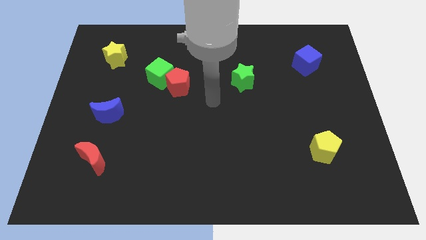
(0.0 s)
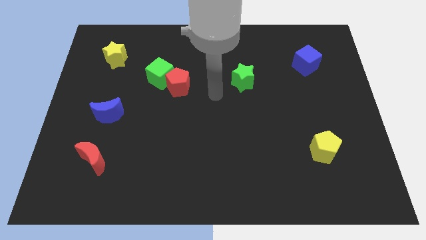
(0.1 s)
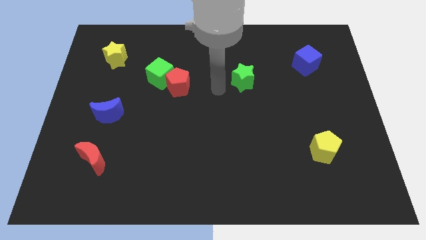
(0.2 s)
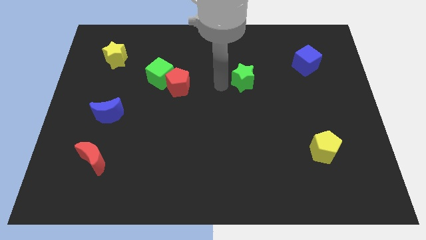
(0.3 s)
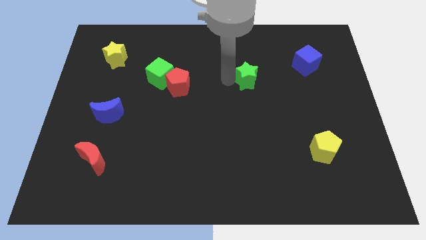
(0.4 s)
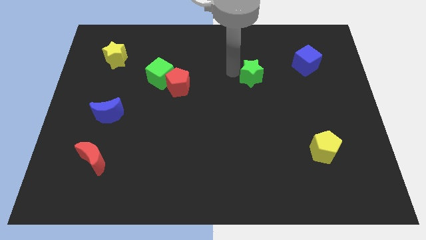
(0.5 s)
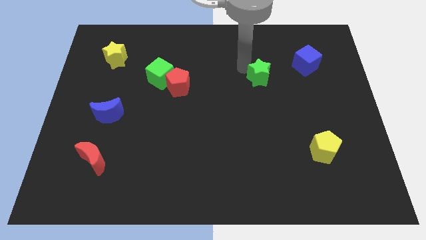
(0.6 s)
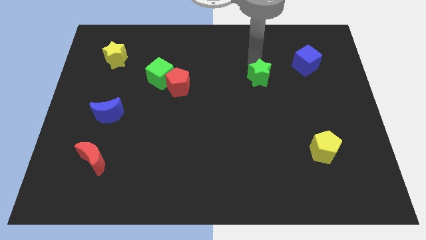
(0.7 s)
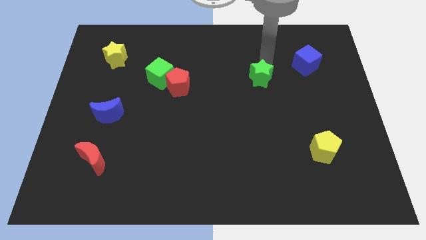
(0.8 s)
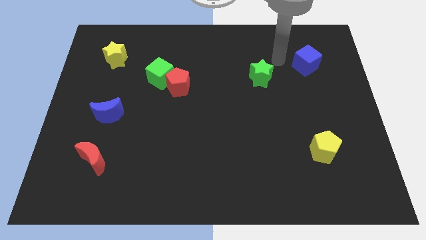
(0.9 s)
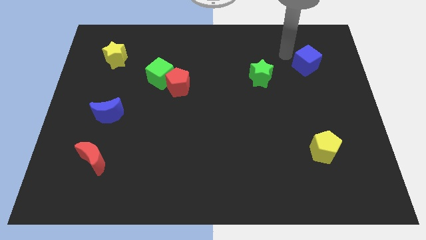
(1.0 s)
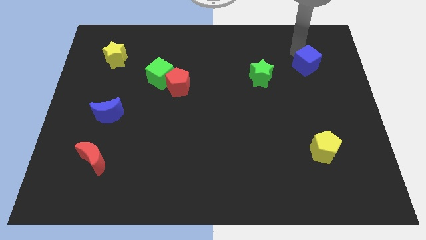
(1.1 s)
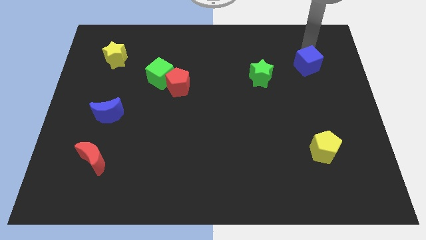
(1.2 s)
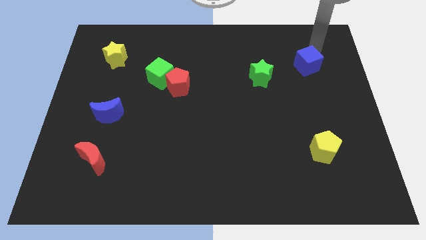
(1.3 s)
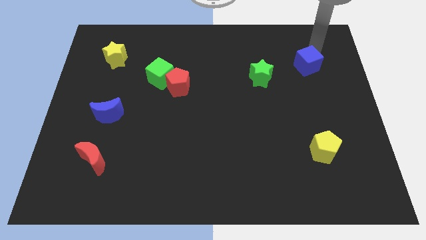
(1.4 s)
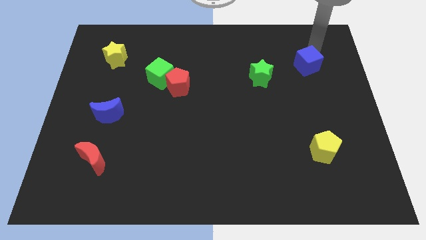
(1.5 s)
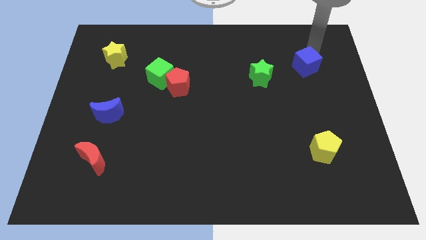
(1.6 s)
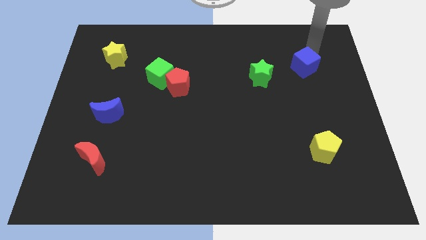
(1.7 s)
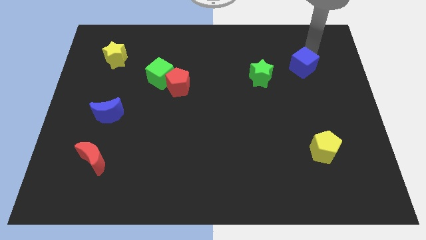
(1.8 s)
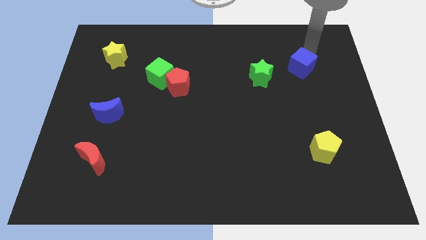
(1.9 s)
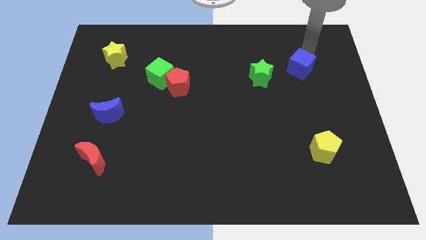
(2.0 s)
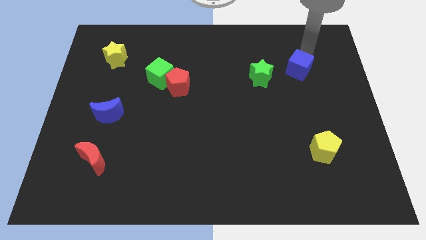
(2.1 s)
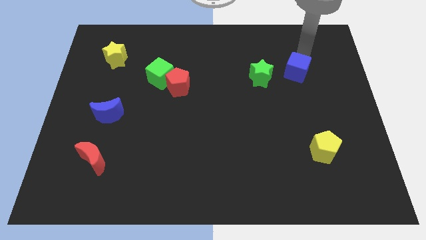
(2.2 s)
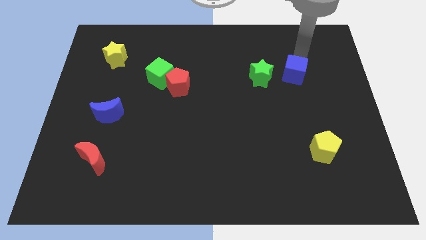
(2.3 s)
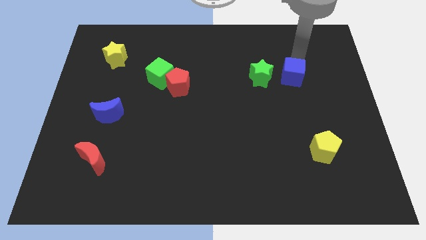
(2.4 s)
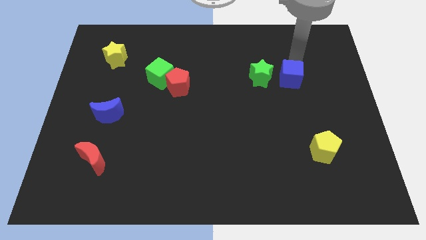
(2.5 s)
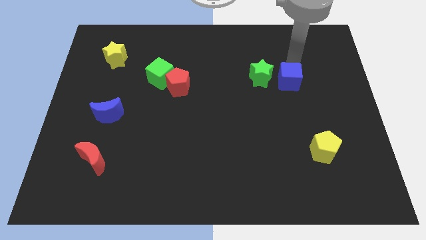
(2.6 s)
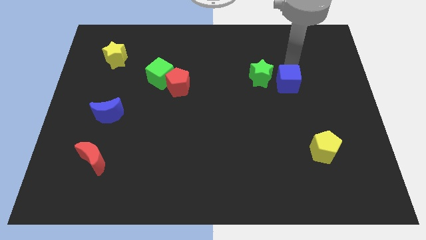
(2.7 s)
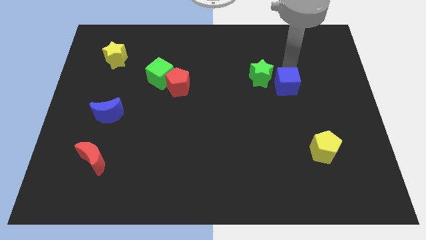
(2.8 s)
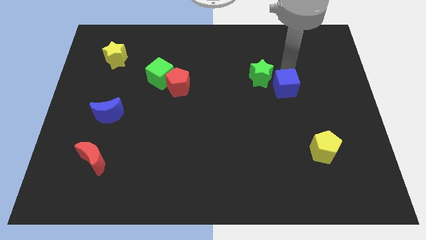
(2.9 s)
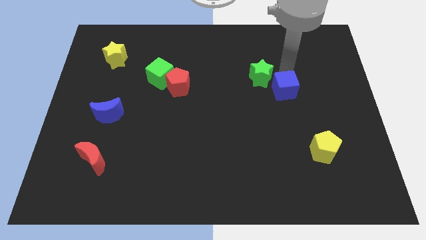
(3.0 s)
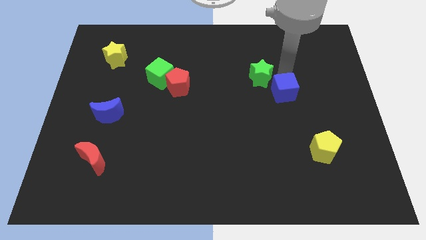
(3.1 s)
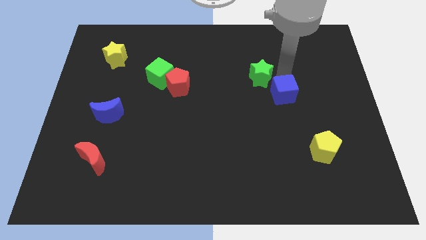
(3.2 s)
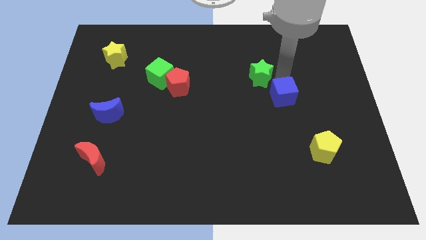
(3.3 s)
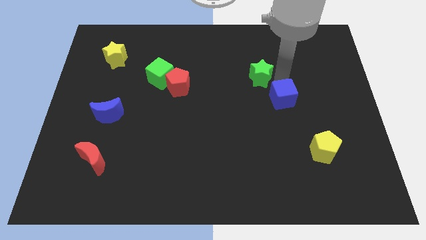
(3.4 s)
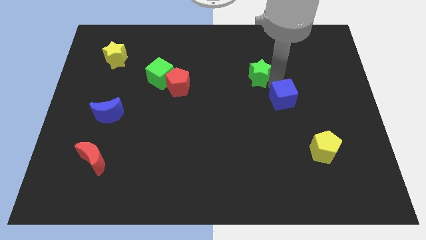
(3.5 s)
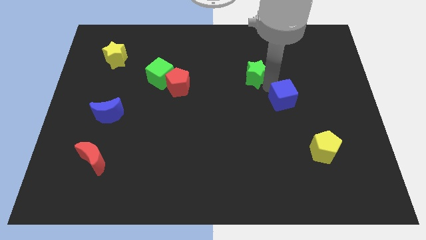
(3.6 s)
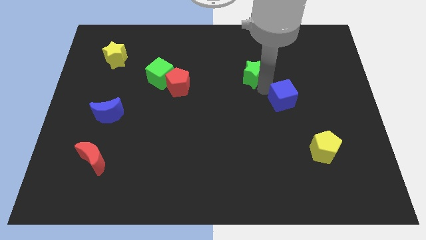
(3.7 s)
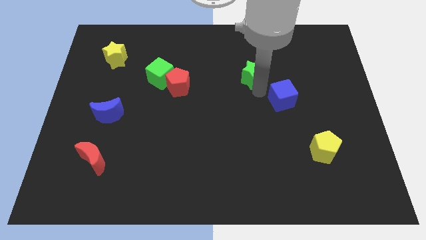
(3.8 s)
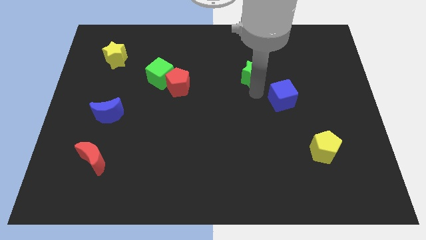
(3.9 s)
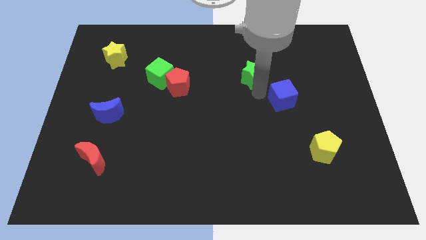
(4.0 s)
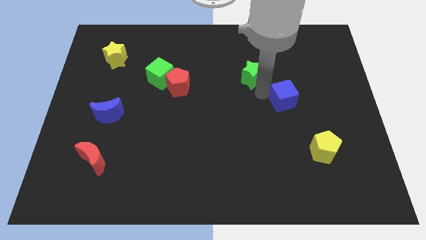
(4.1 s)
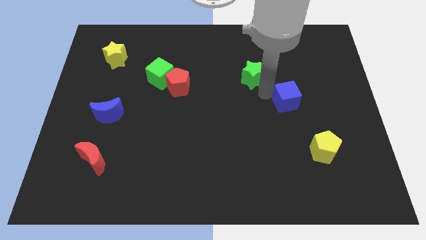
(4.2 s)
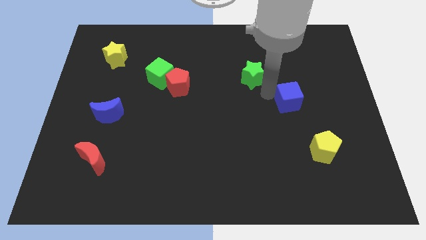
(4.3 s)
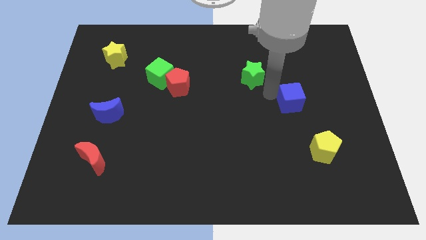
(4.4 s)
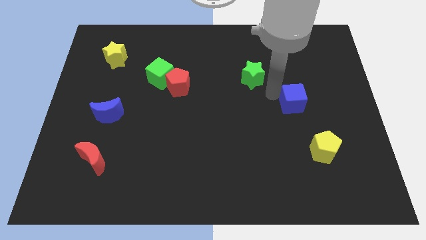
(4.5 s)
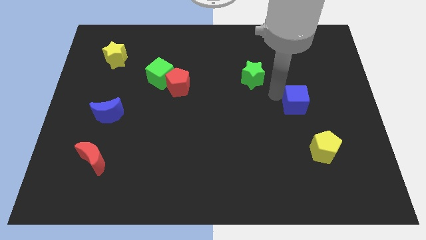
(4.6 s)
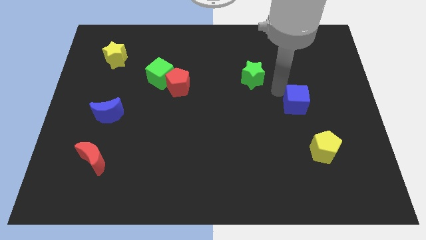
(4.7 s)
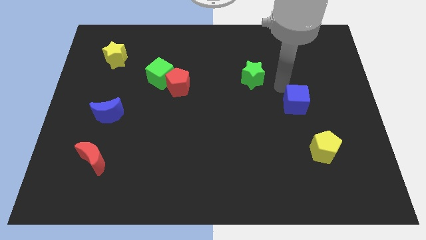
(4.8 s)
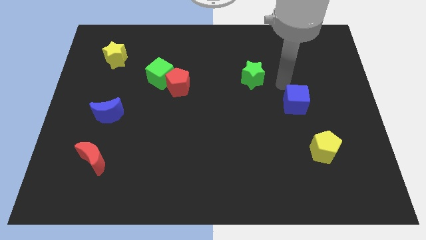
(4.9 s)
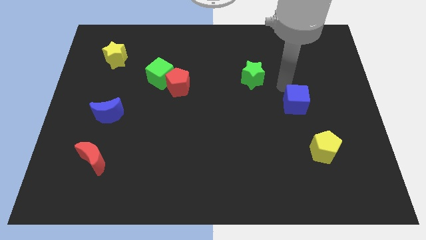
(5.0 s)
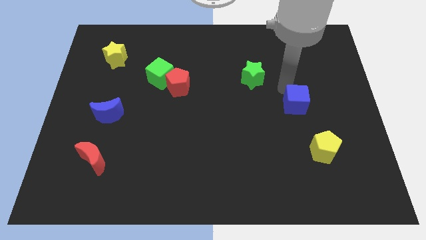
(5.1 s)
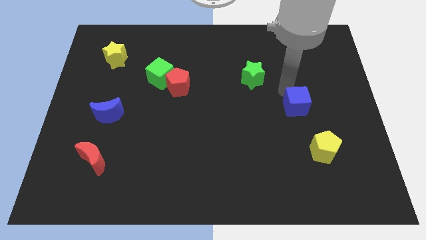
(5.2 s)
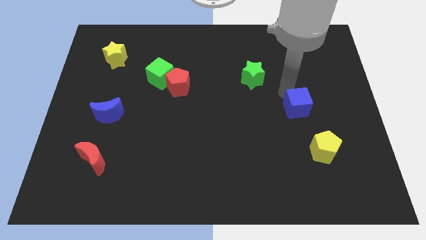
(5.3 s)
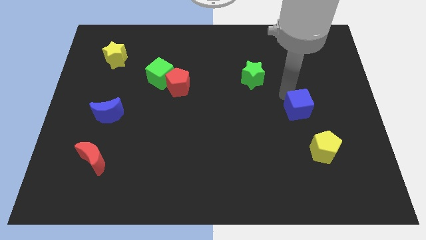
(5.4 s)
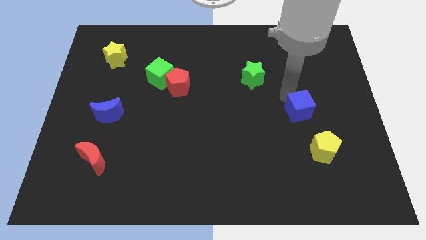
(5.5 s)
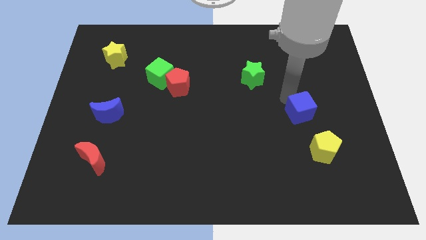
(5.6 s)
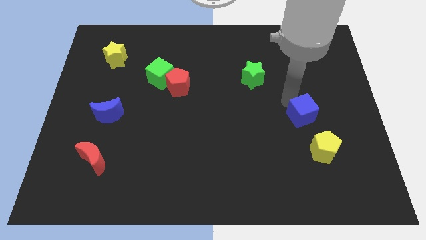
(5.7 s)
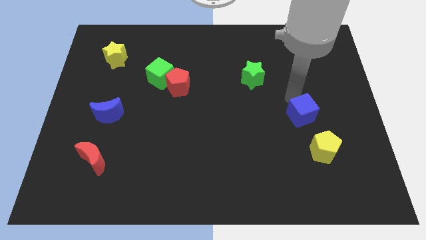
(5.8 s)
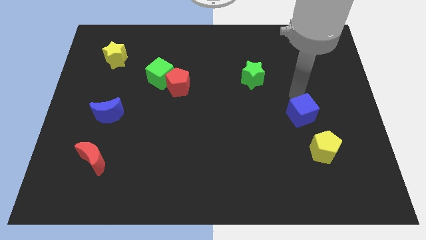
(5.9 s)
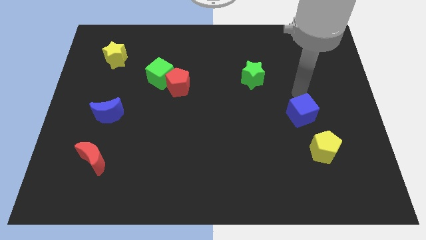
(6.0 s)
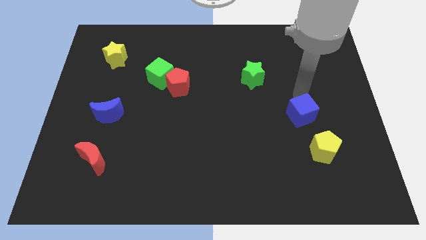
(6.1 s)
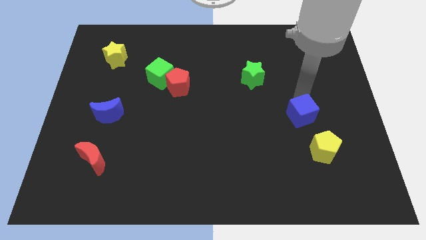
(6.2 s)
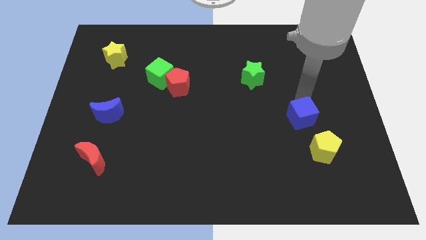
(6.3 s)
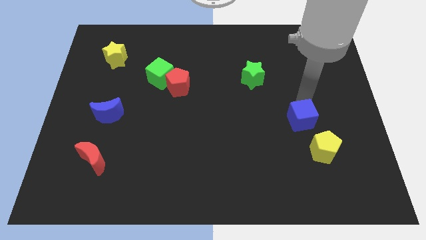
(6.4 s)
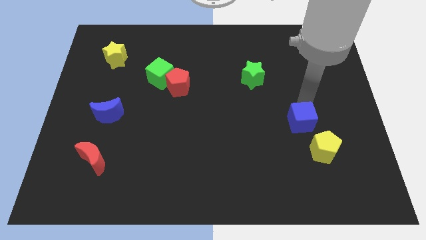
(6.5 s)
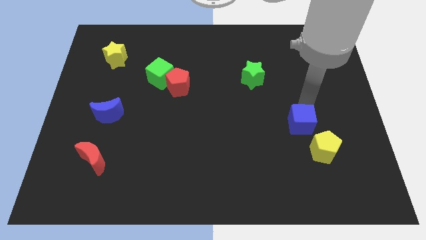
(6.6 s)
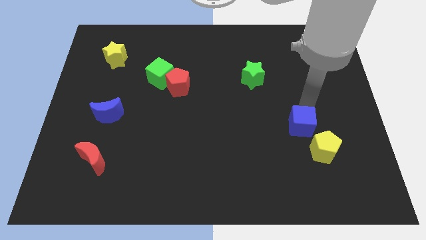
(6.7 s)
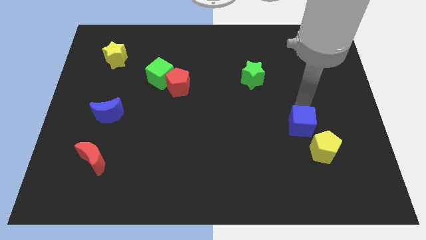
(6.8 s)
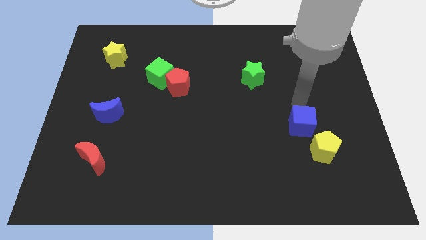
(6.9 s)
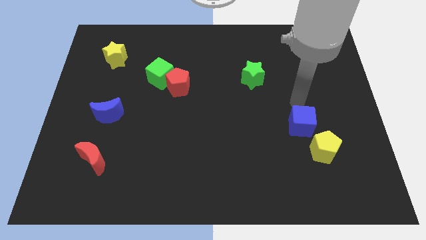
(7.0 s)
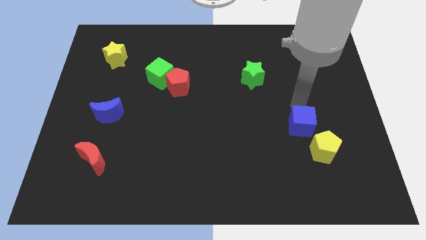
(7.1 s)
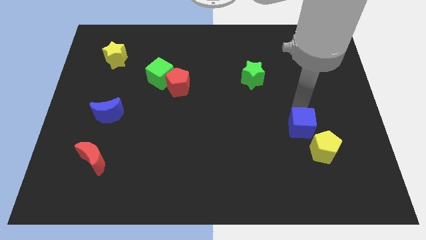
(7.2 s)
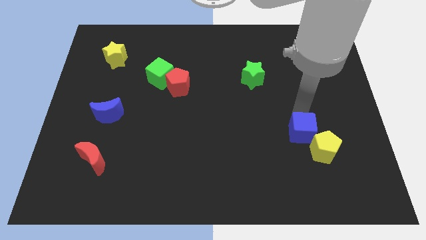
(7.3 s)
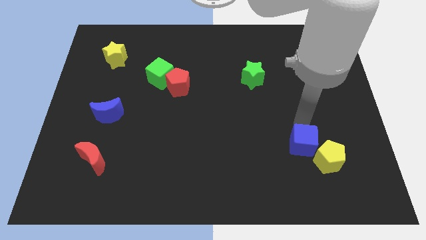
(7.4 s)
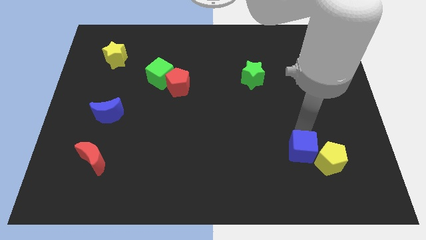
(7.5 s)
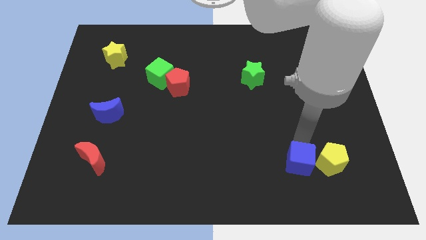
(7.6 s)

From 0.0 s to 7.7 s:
put the blue cube to the bottom left side of the yellow pentagon
